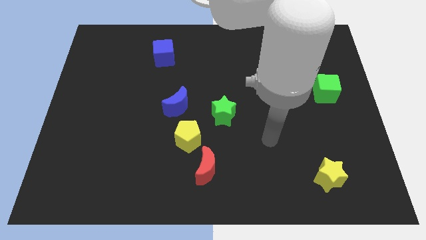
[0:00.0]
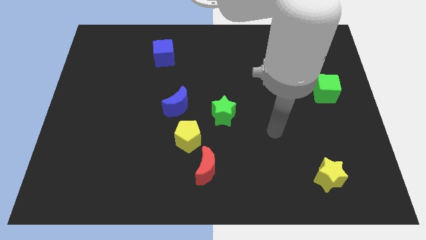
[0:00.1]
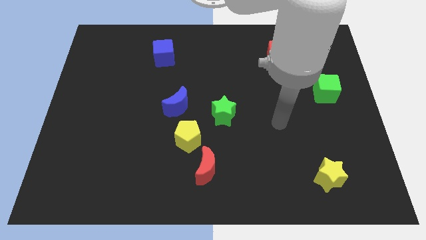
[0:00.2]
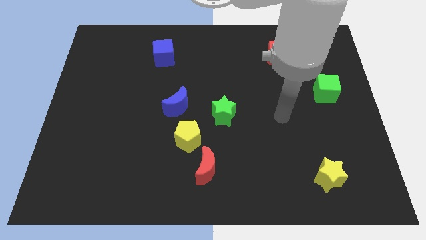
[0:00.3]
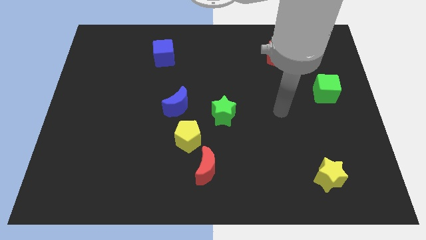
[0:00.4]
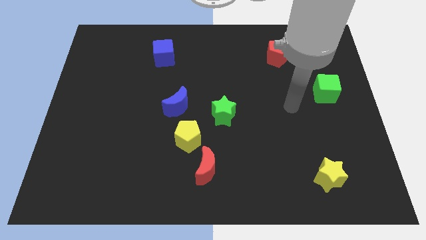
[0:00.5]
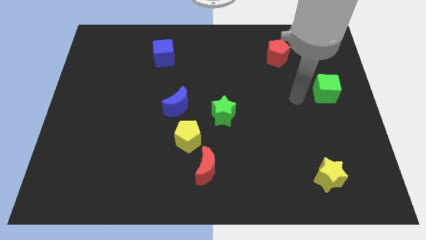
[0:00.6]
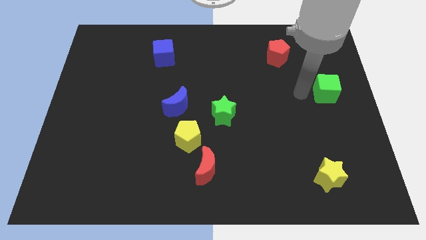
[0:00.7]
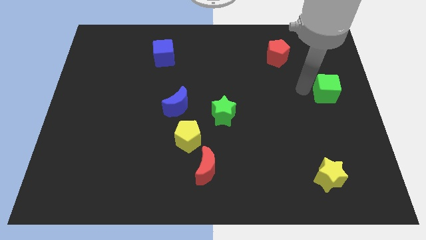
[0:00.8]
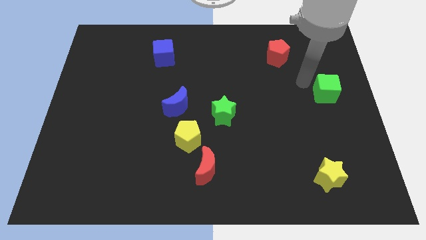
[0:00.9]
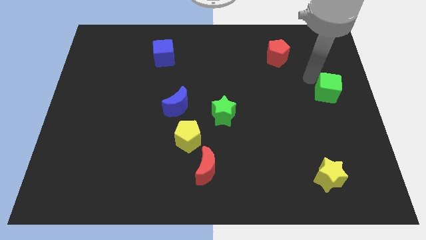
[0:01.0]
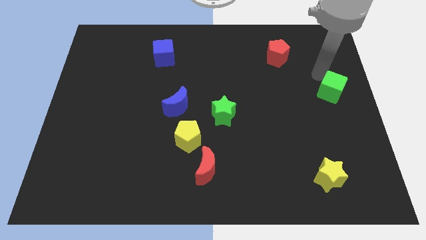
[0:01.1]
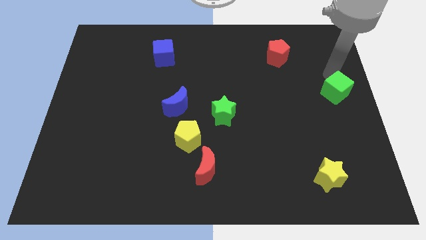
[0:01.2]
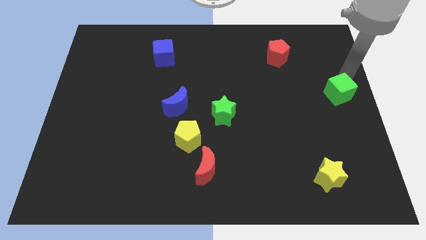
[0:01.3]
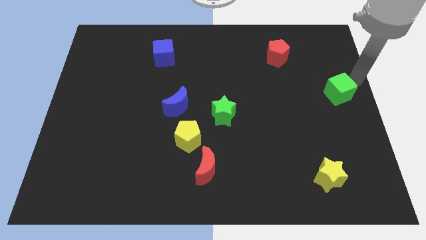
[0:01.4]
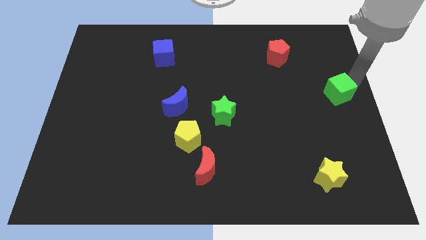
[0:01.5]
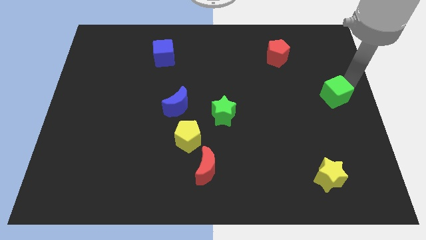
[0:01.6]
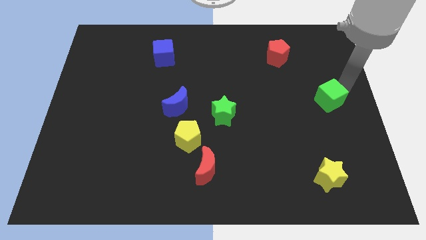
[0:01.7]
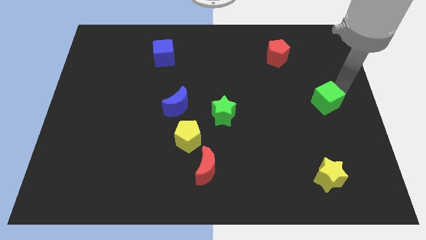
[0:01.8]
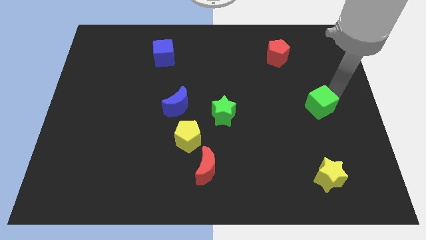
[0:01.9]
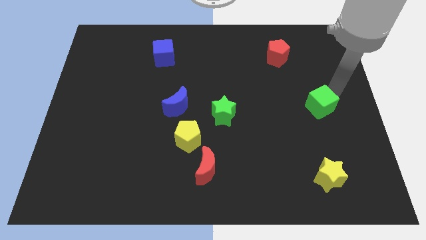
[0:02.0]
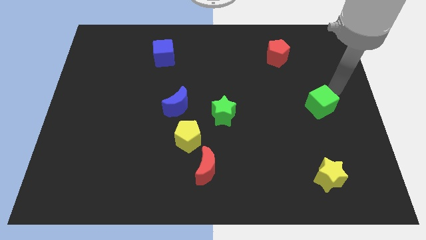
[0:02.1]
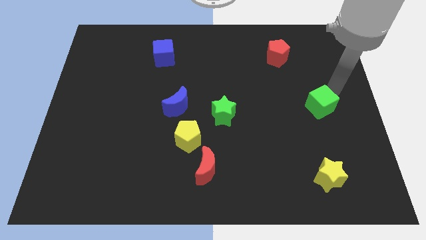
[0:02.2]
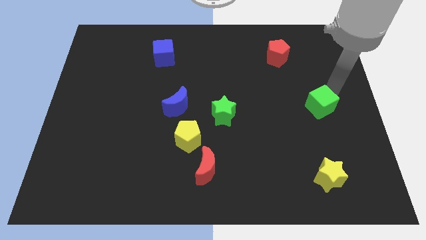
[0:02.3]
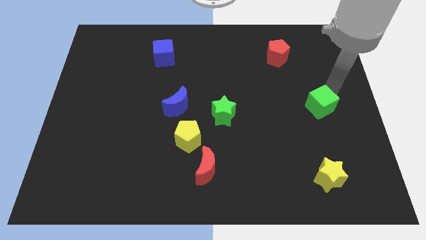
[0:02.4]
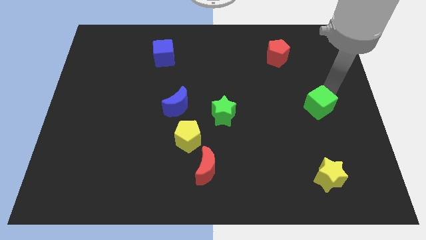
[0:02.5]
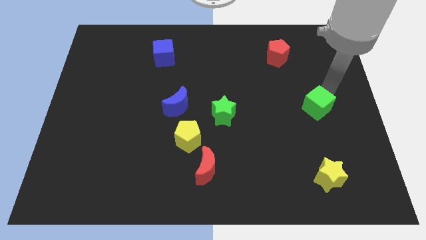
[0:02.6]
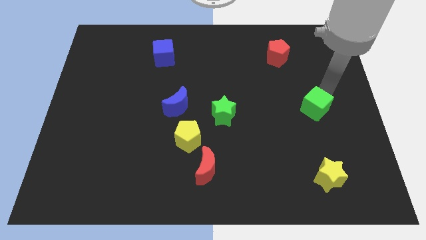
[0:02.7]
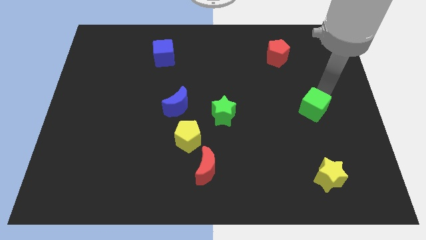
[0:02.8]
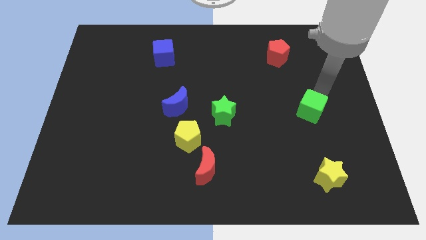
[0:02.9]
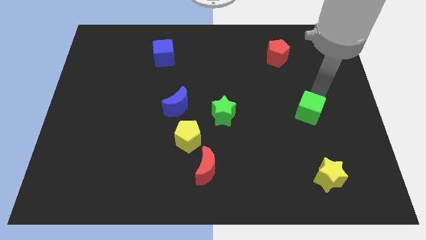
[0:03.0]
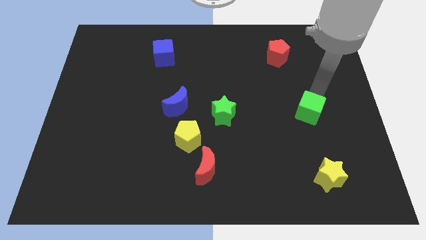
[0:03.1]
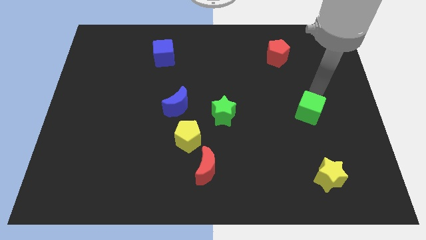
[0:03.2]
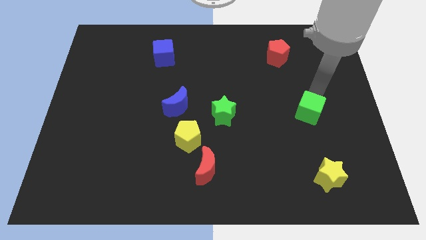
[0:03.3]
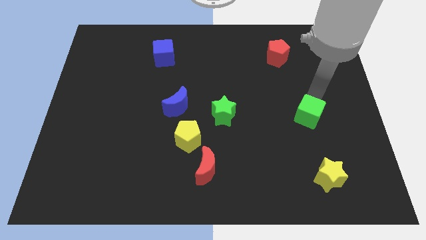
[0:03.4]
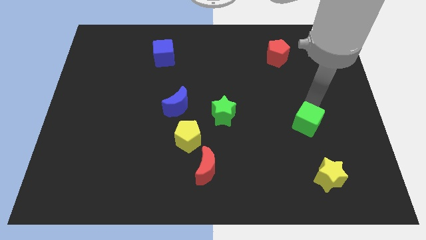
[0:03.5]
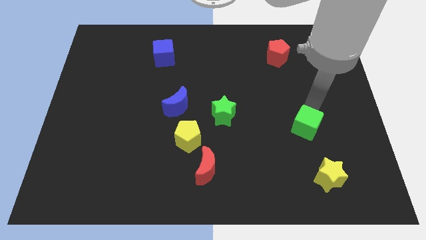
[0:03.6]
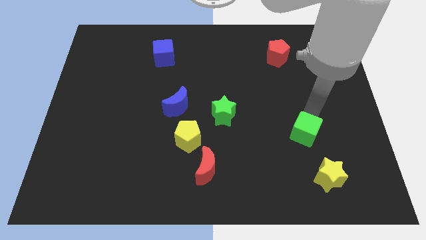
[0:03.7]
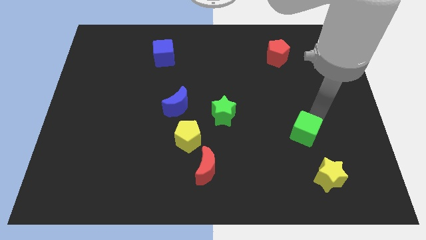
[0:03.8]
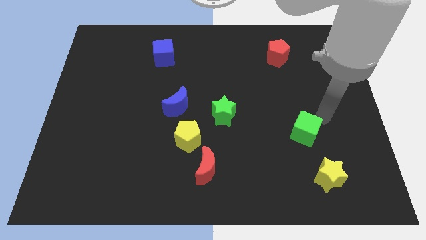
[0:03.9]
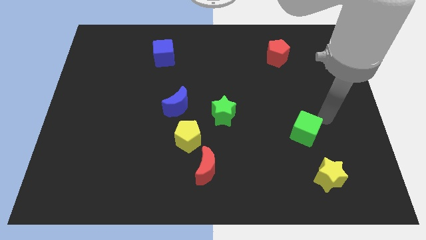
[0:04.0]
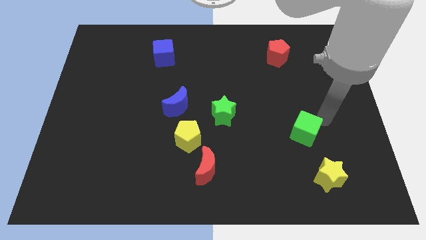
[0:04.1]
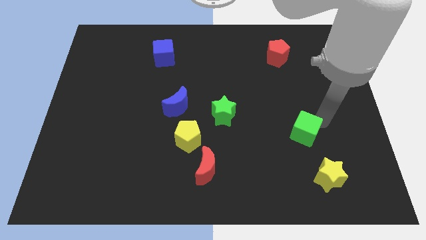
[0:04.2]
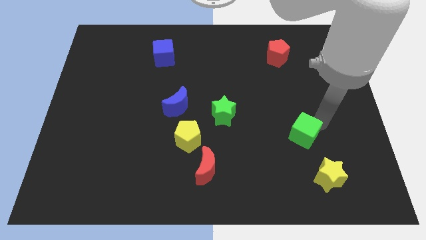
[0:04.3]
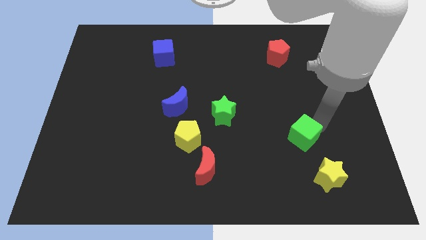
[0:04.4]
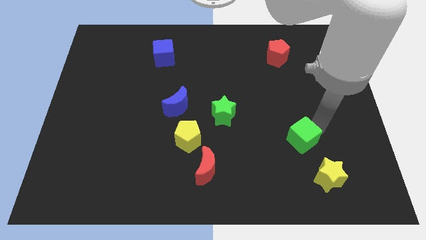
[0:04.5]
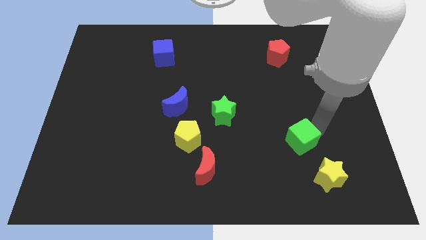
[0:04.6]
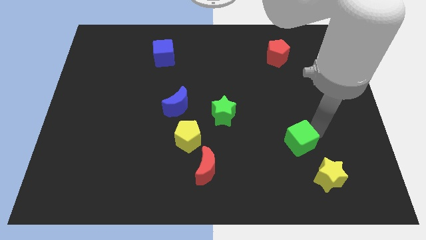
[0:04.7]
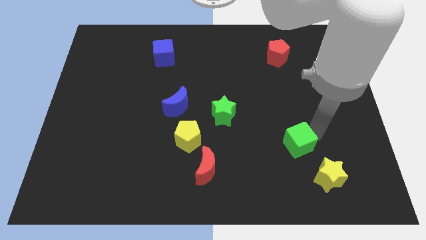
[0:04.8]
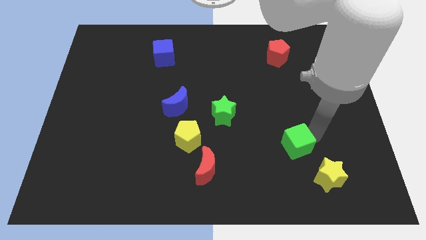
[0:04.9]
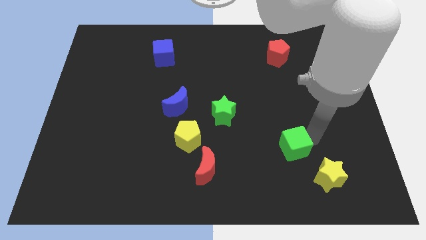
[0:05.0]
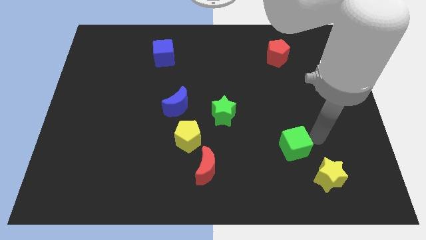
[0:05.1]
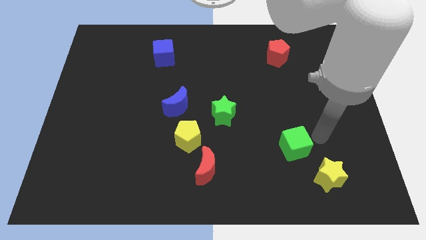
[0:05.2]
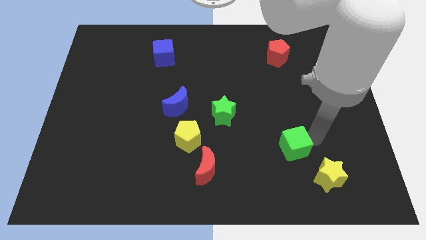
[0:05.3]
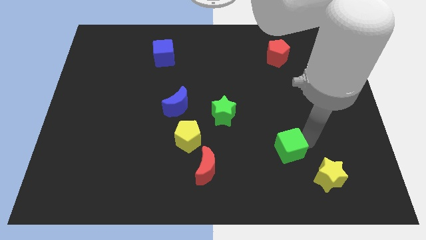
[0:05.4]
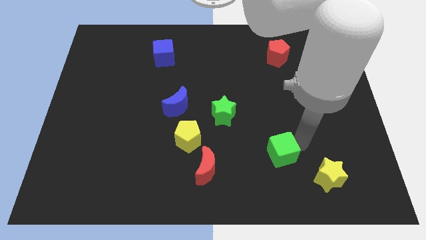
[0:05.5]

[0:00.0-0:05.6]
push the green cube diagonally downwards and to the left

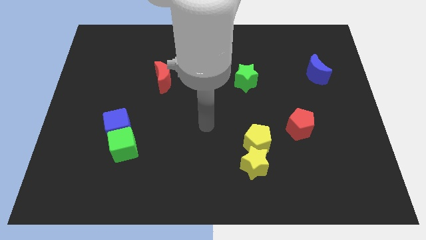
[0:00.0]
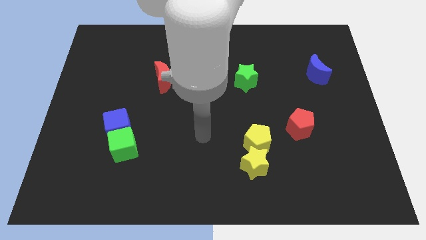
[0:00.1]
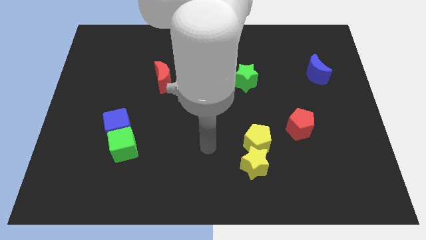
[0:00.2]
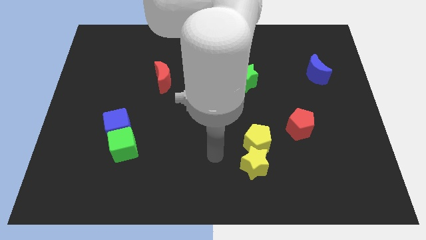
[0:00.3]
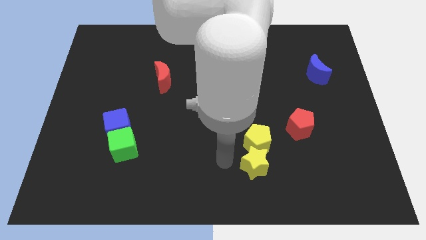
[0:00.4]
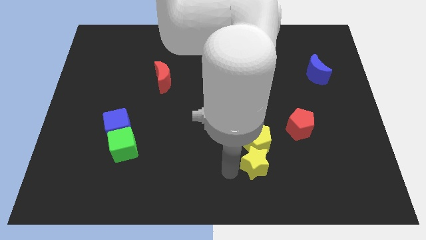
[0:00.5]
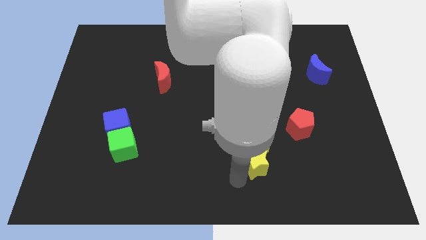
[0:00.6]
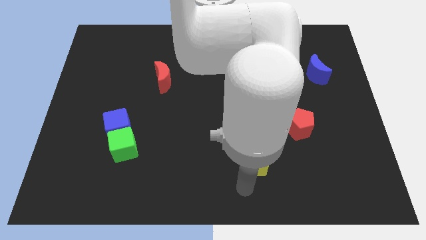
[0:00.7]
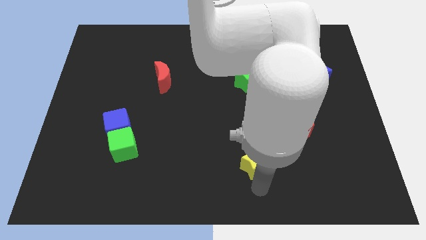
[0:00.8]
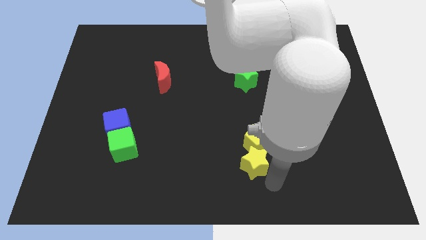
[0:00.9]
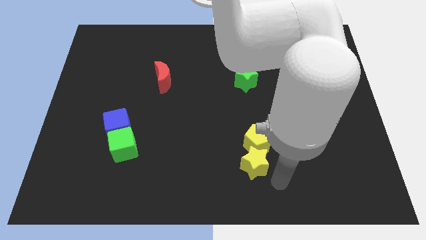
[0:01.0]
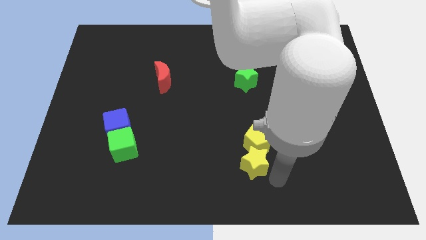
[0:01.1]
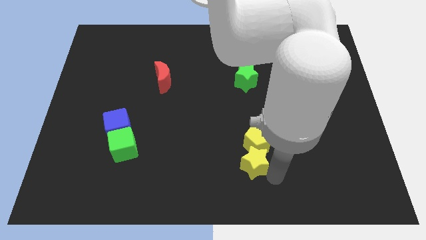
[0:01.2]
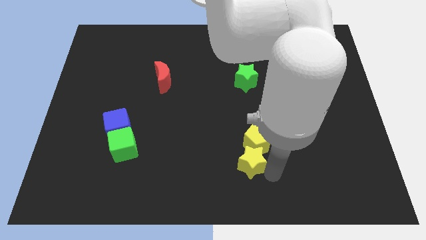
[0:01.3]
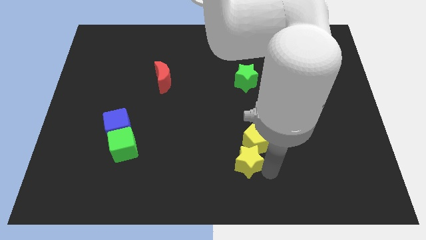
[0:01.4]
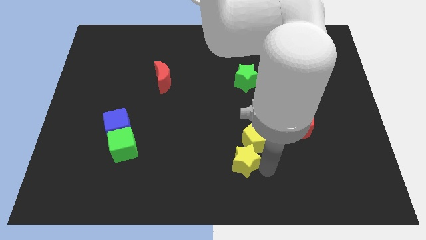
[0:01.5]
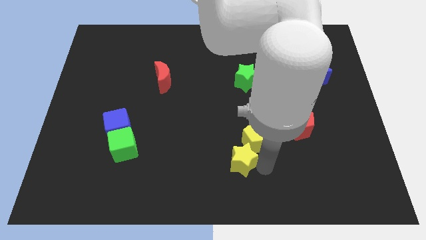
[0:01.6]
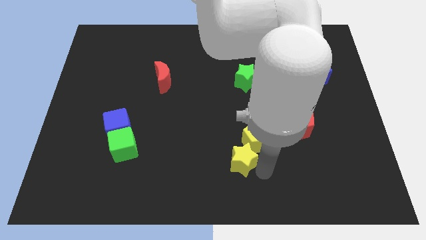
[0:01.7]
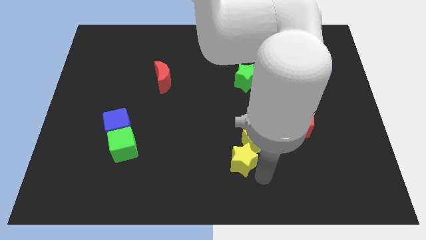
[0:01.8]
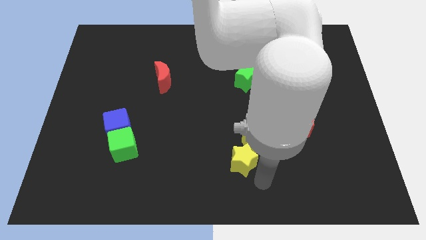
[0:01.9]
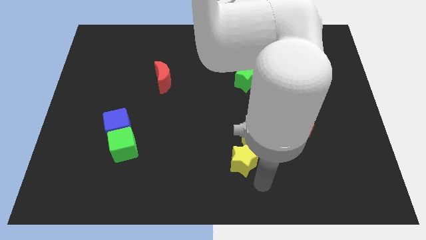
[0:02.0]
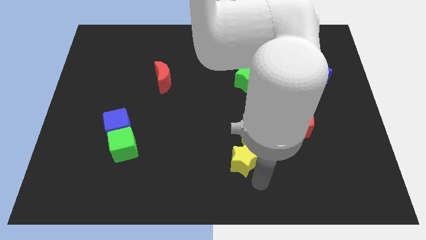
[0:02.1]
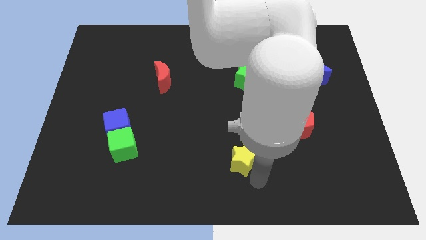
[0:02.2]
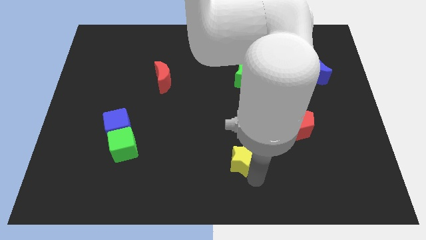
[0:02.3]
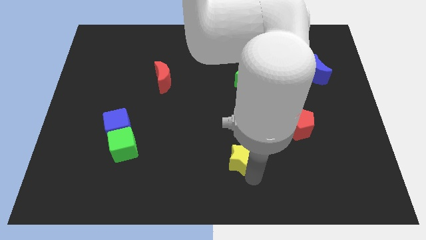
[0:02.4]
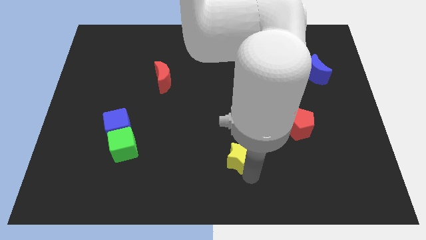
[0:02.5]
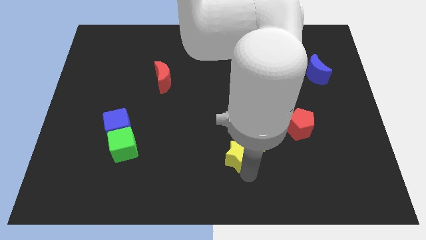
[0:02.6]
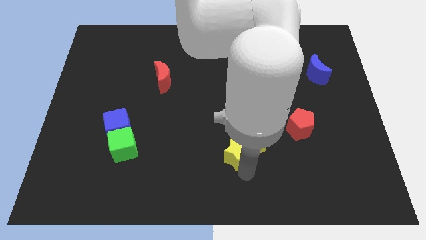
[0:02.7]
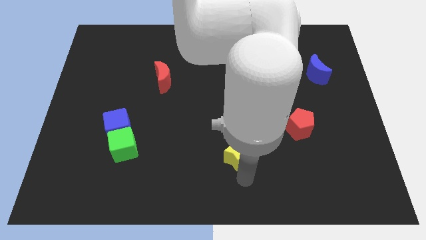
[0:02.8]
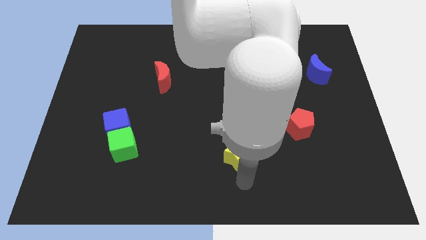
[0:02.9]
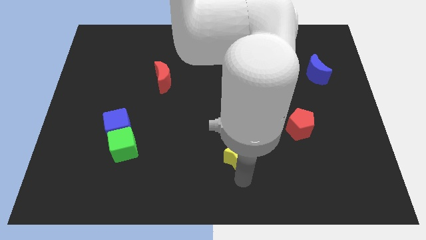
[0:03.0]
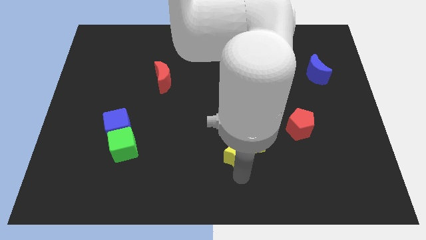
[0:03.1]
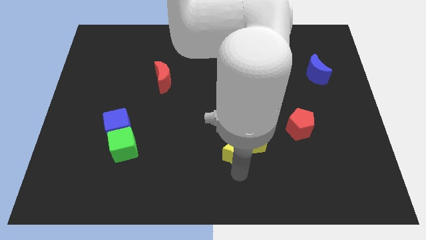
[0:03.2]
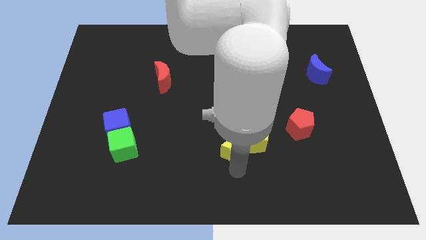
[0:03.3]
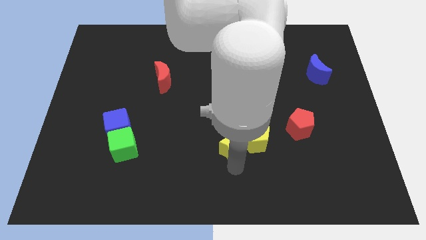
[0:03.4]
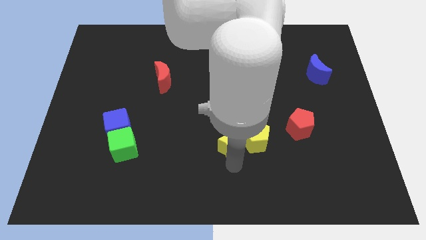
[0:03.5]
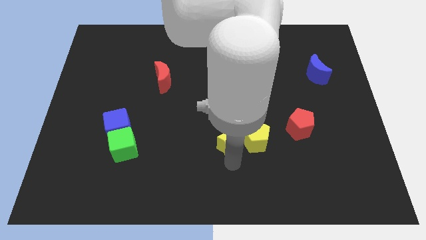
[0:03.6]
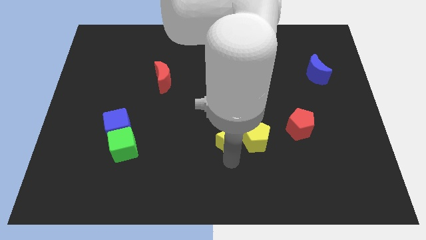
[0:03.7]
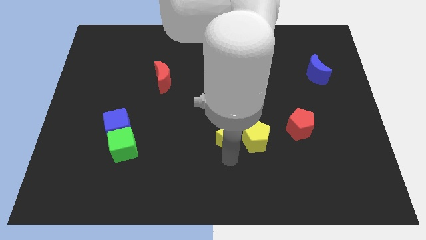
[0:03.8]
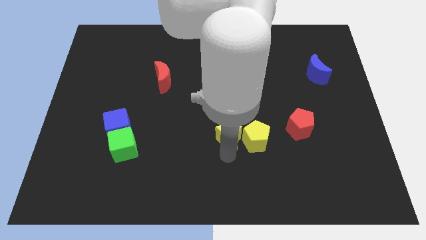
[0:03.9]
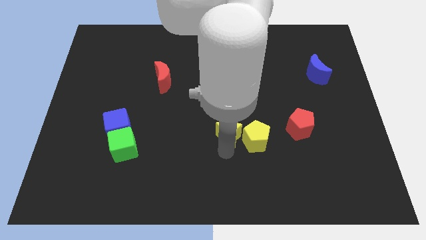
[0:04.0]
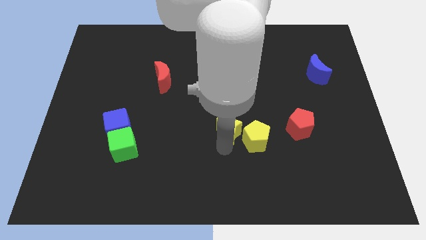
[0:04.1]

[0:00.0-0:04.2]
slightly slide the yellow star upwards
